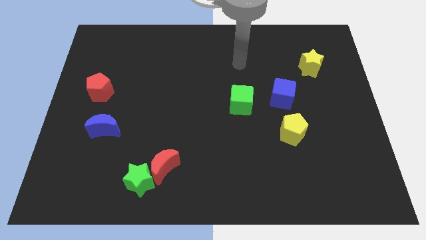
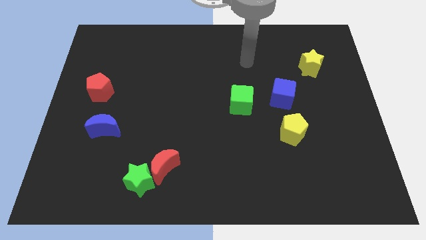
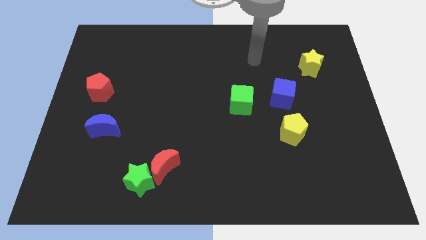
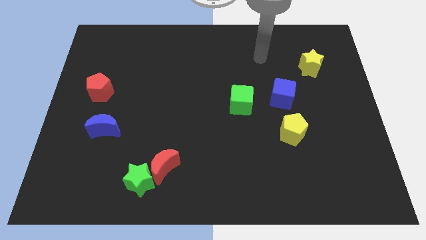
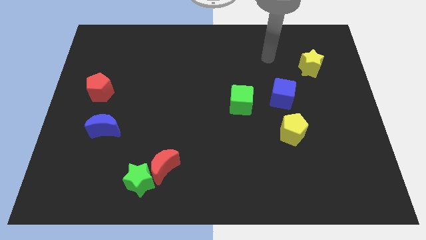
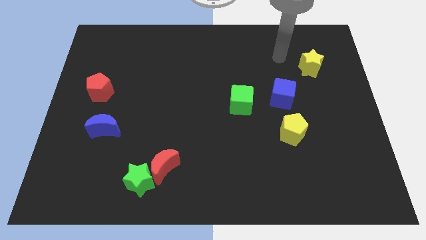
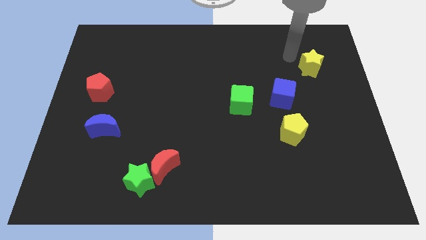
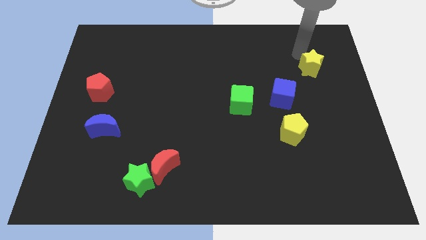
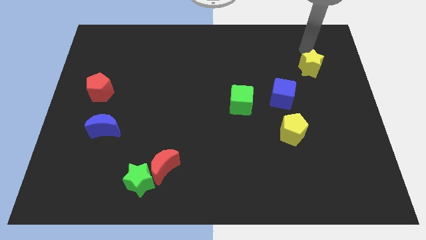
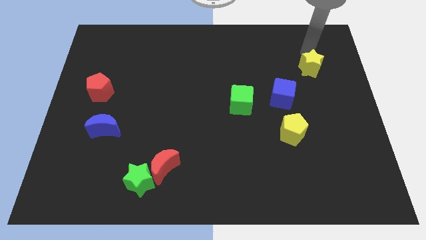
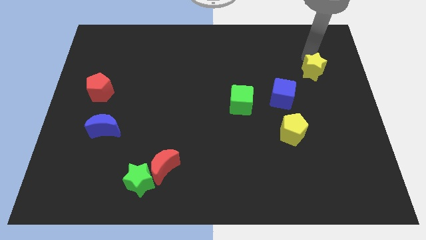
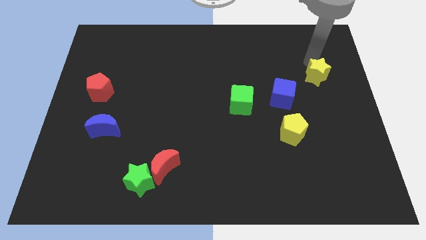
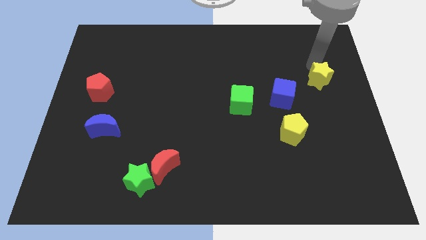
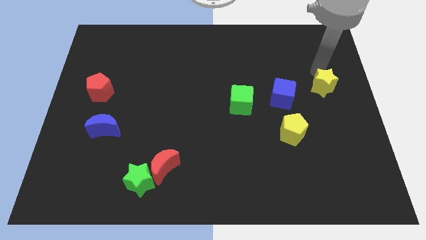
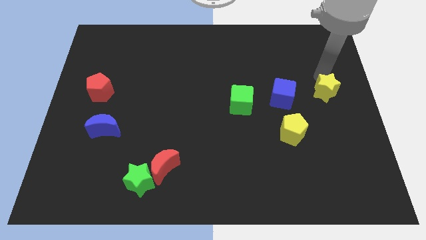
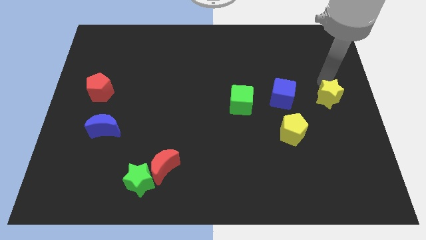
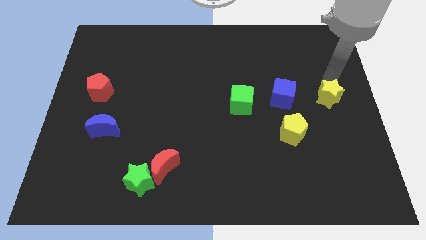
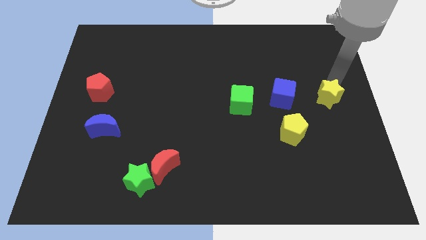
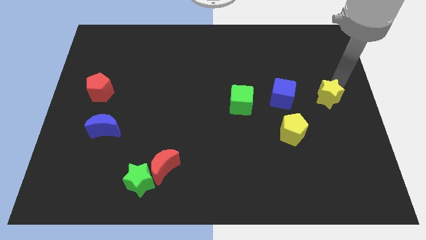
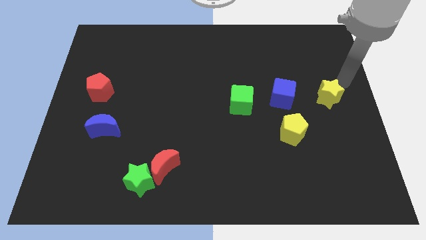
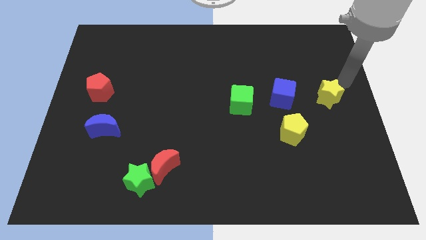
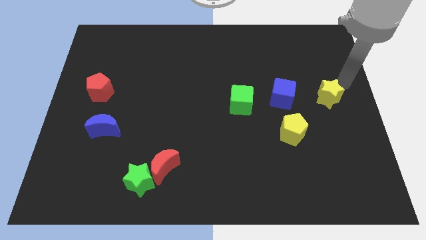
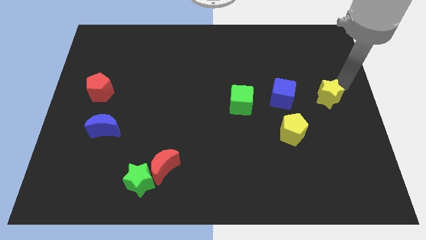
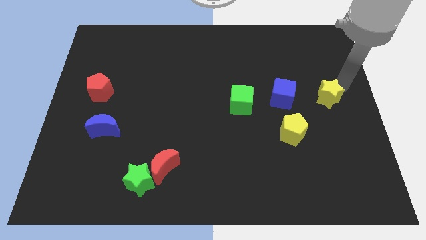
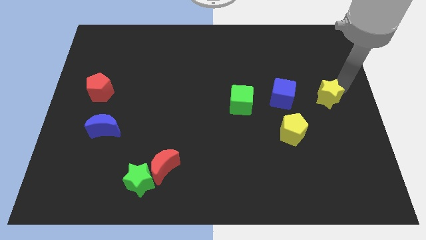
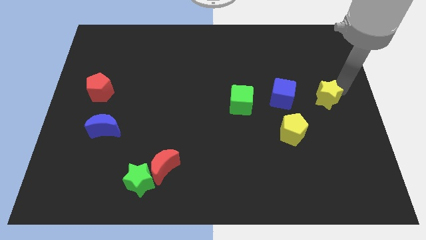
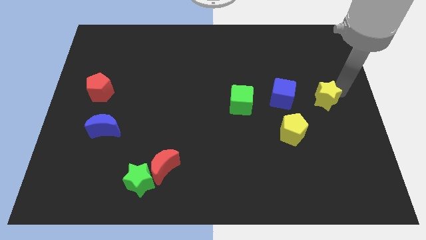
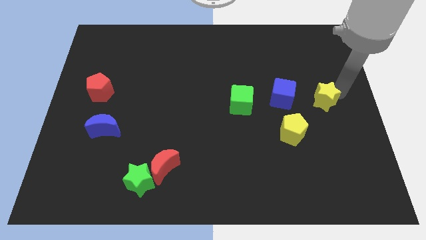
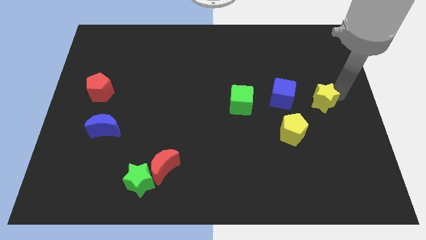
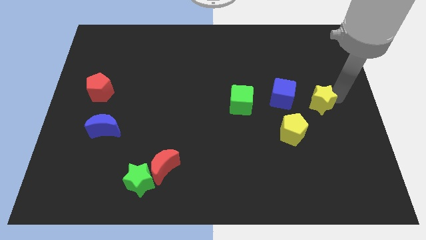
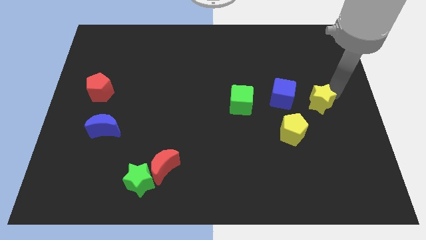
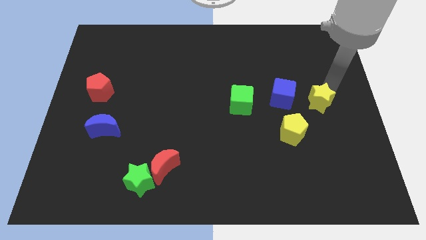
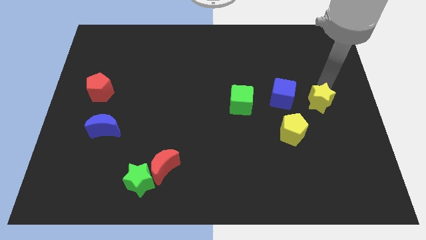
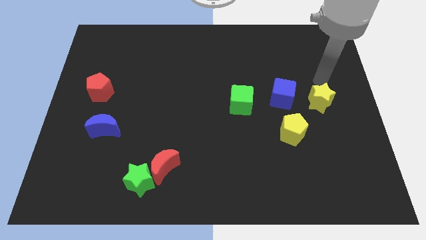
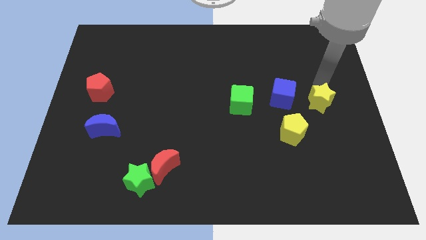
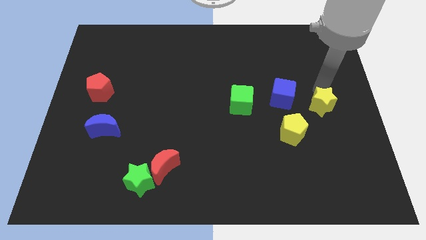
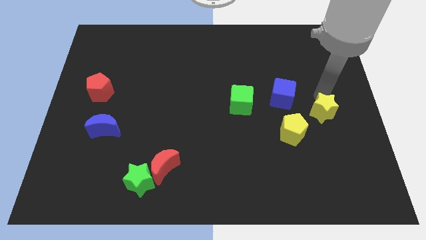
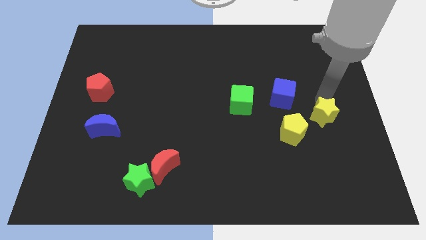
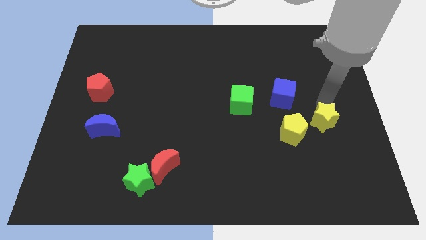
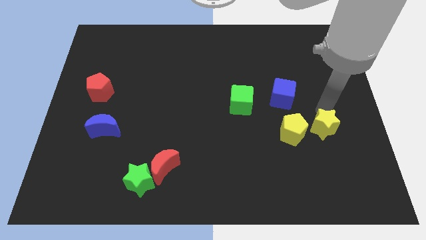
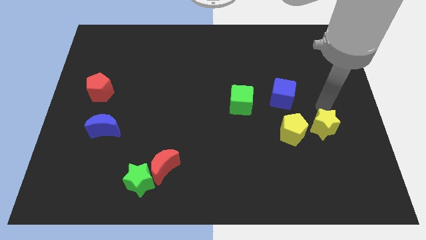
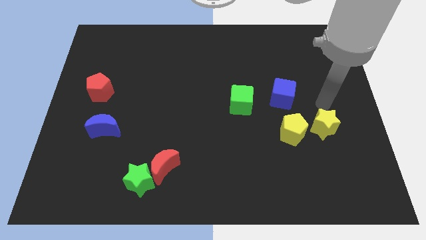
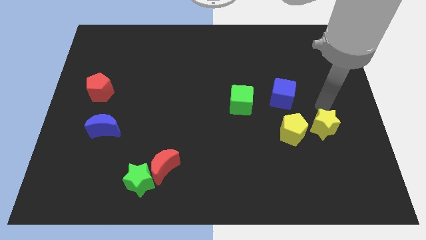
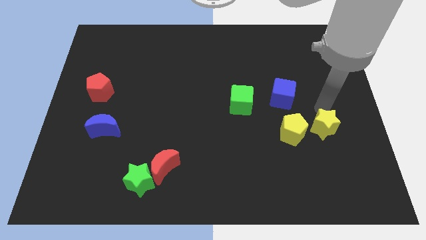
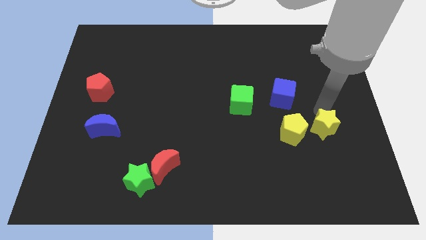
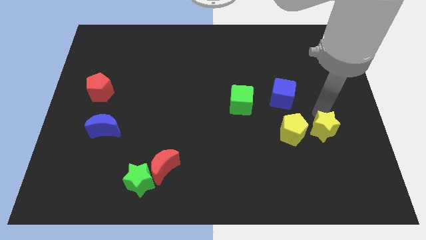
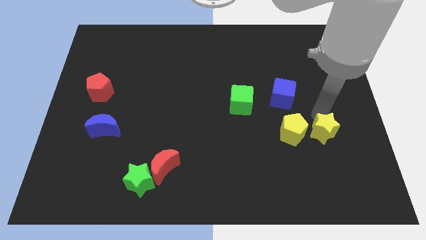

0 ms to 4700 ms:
slide the yellow star downwards

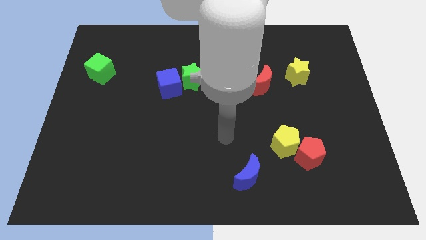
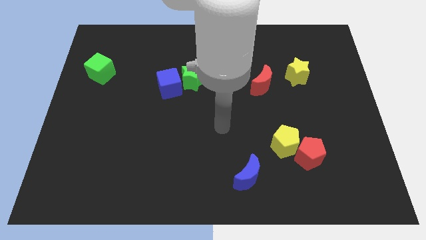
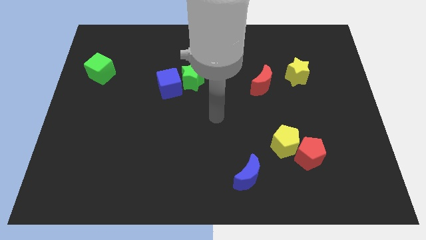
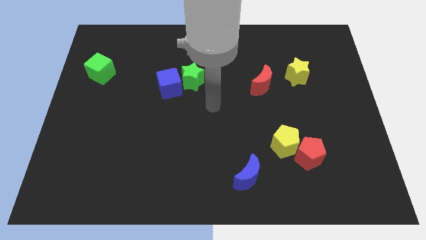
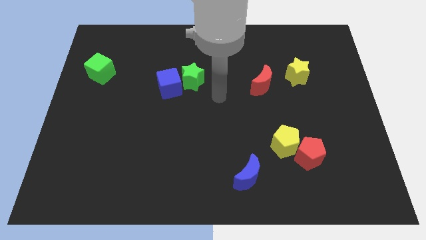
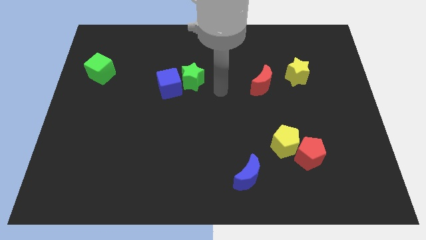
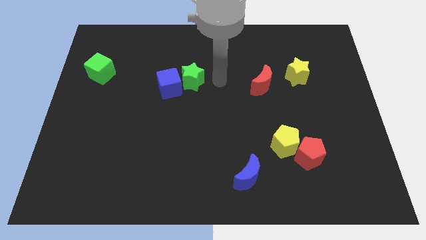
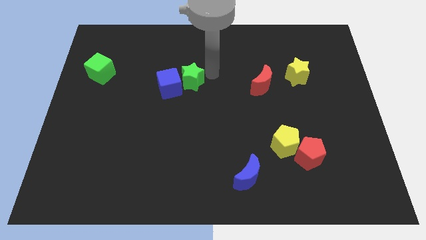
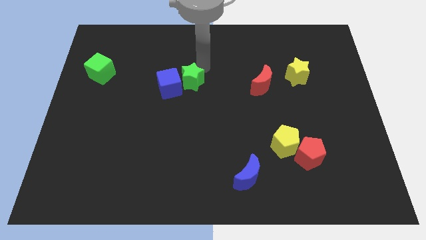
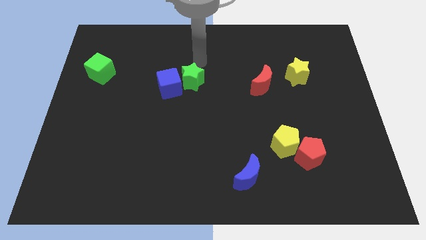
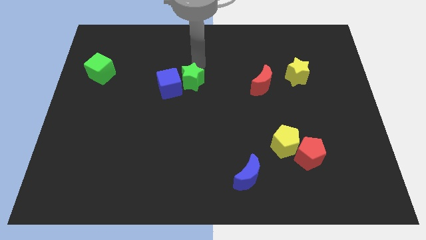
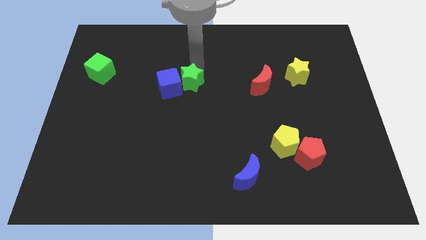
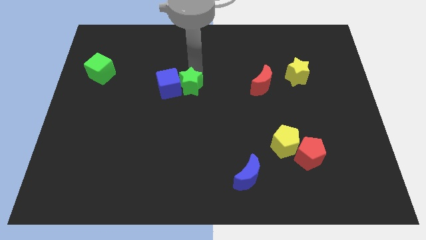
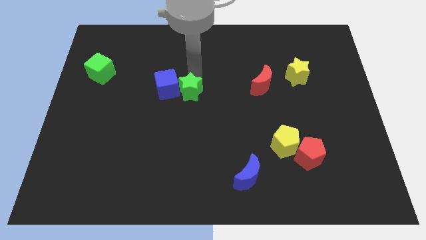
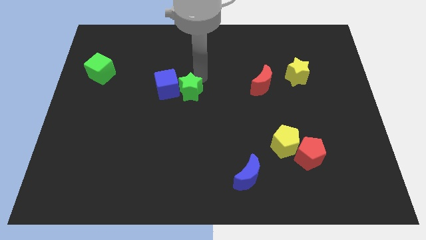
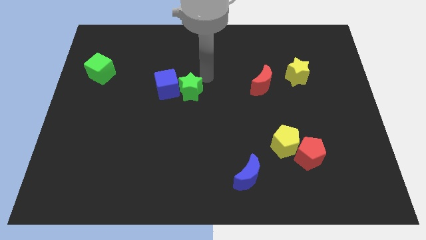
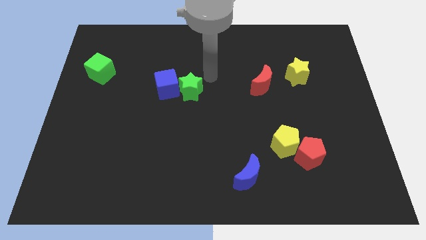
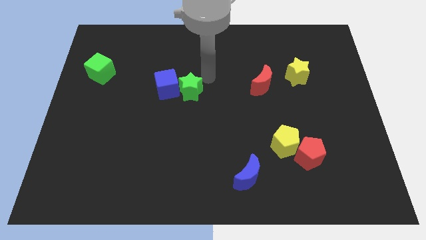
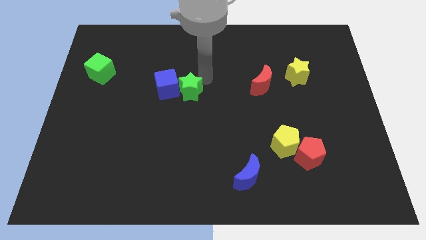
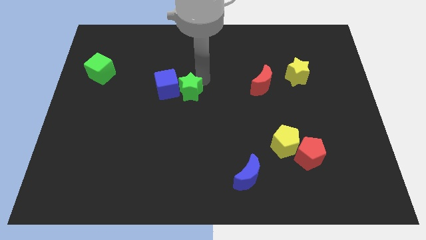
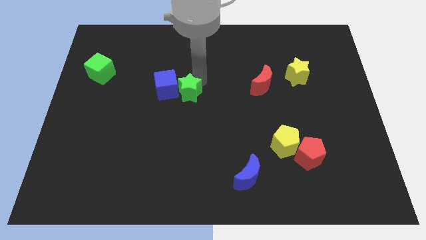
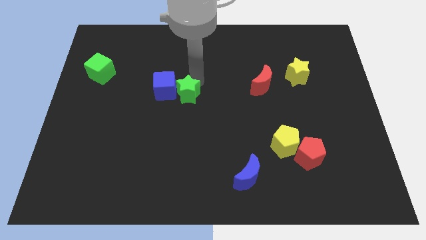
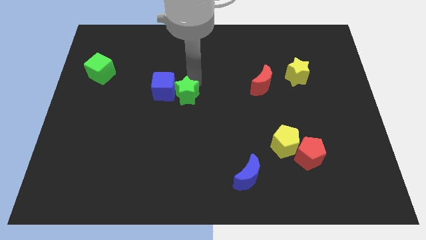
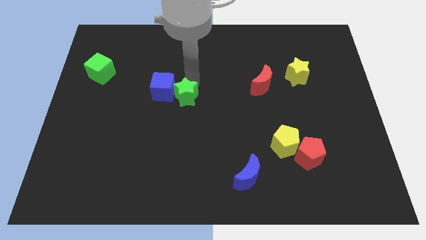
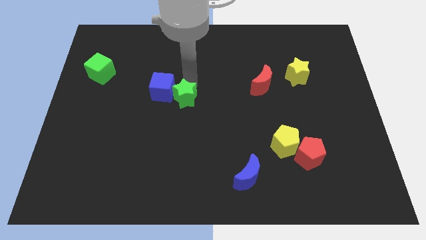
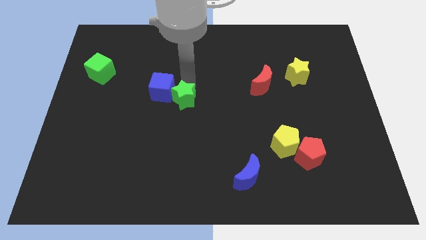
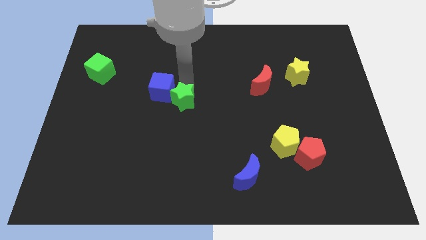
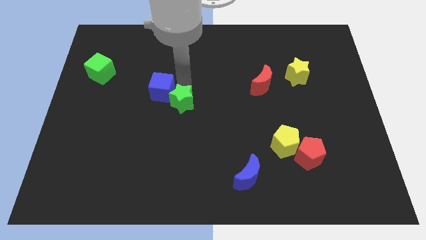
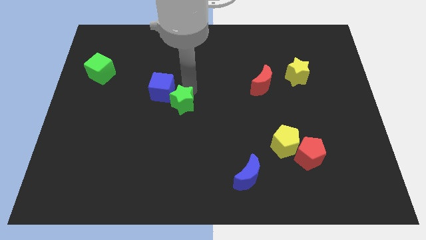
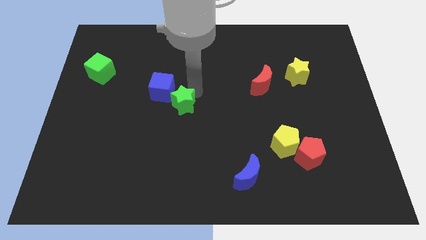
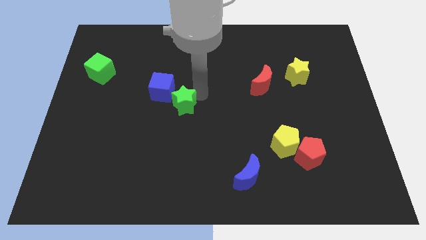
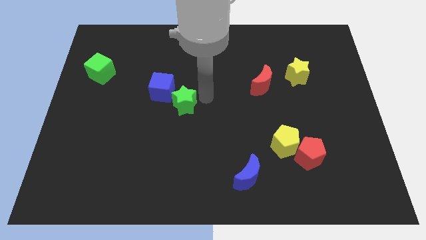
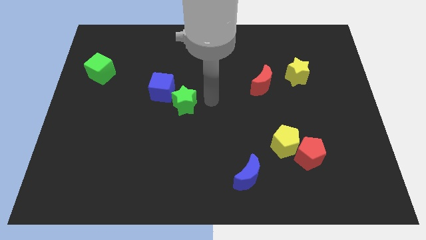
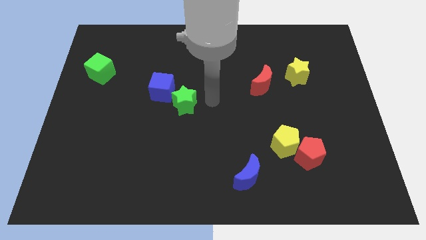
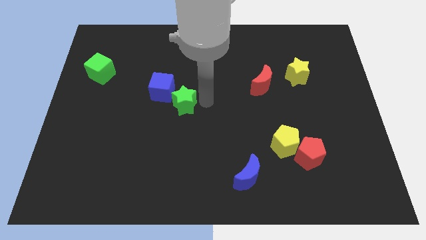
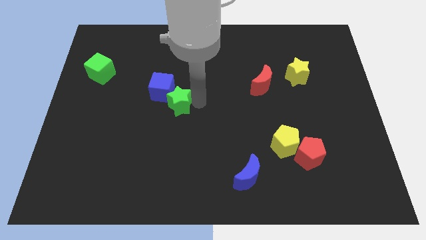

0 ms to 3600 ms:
slightly slide the green star downwards and left diagonally
